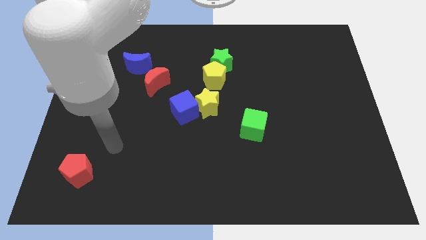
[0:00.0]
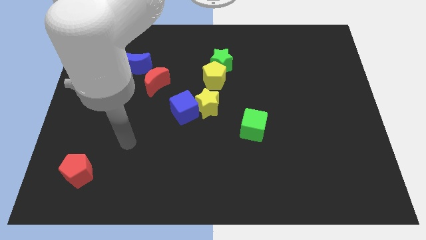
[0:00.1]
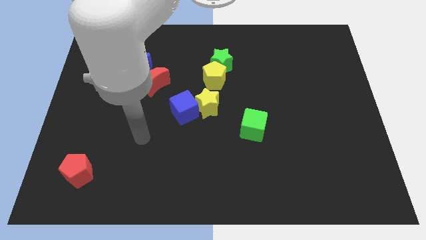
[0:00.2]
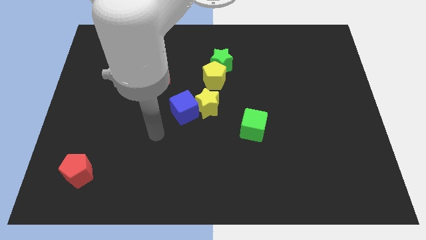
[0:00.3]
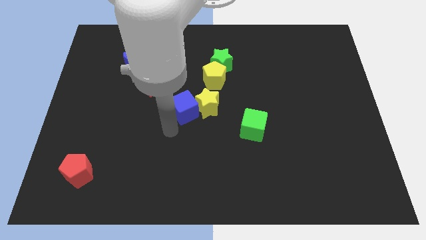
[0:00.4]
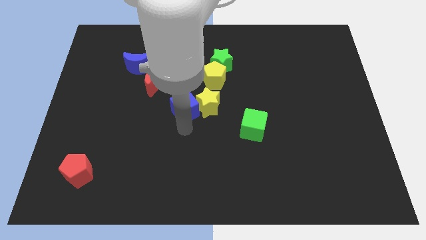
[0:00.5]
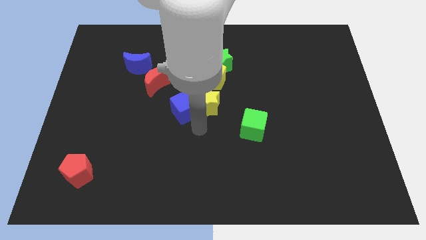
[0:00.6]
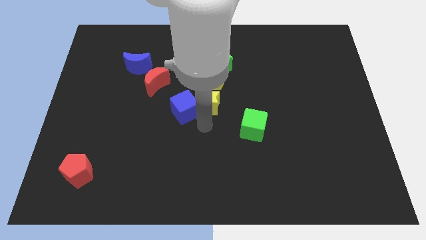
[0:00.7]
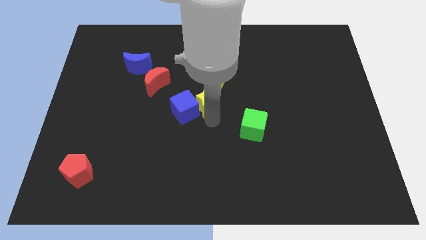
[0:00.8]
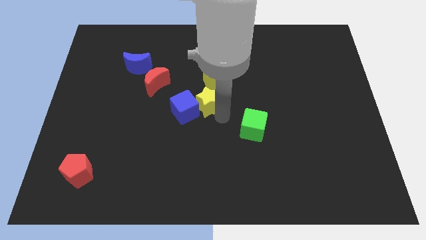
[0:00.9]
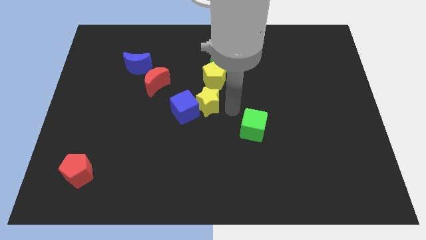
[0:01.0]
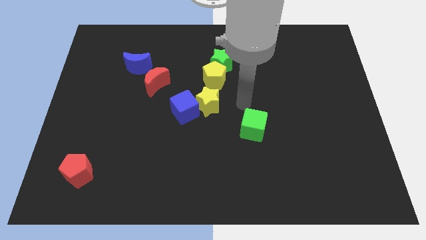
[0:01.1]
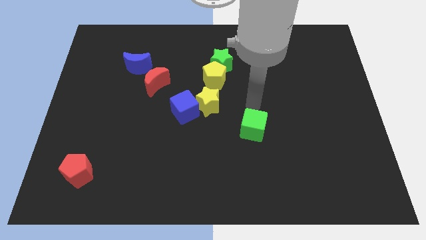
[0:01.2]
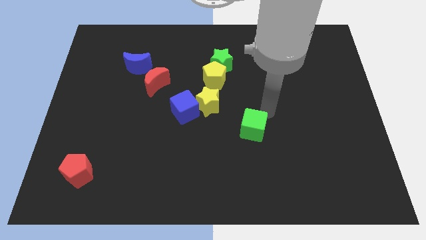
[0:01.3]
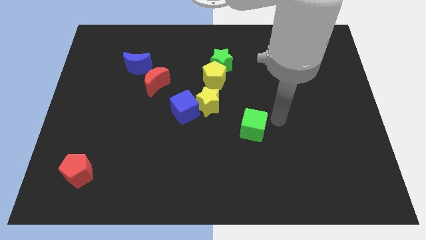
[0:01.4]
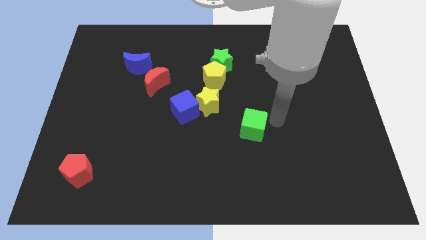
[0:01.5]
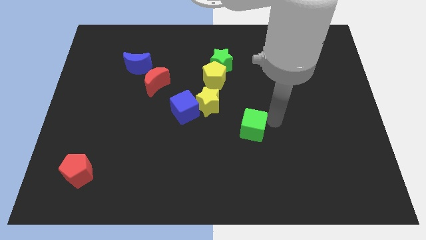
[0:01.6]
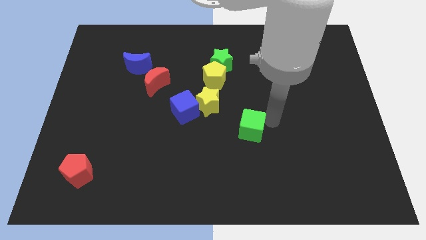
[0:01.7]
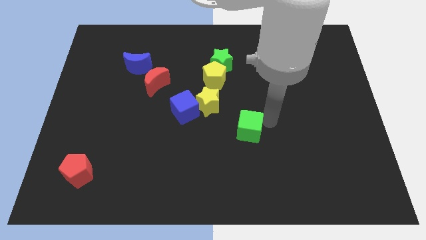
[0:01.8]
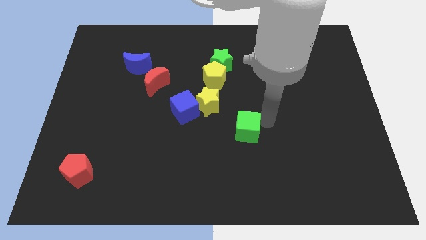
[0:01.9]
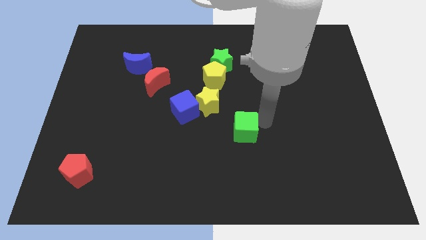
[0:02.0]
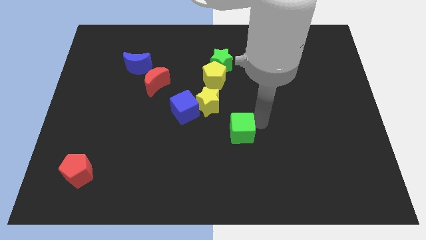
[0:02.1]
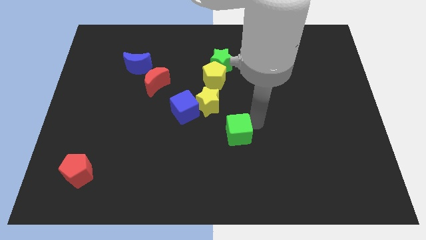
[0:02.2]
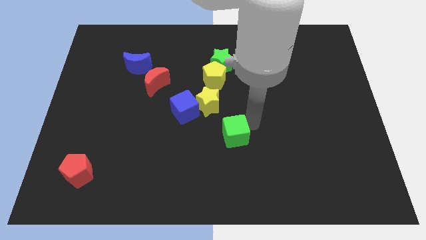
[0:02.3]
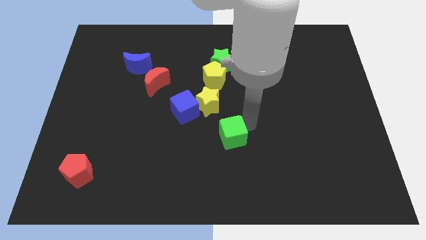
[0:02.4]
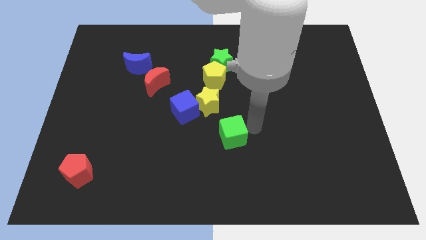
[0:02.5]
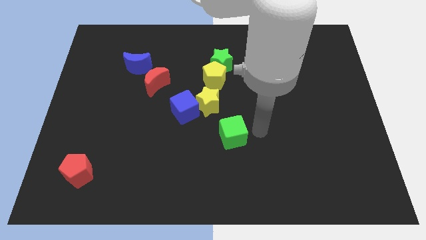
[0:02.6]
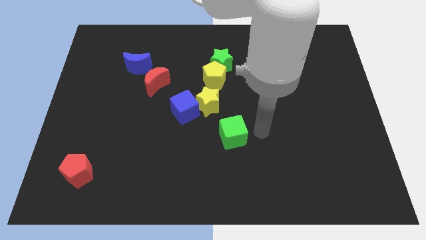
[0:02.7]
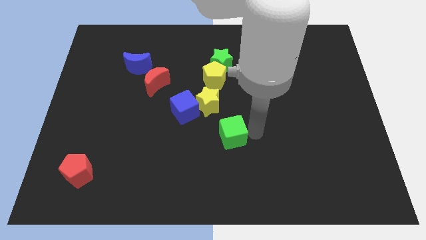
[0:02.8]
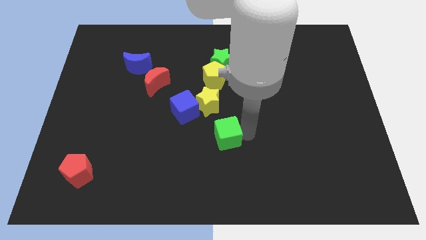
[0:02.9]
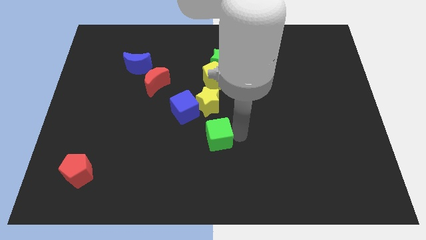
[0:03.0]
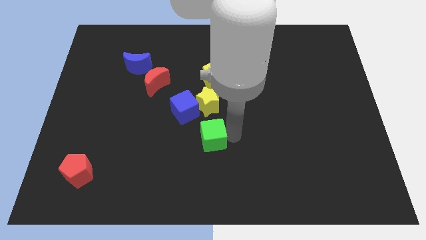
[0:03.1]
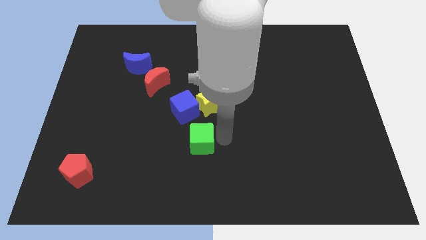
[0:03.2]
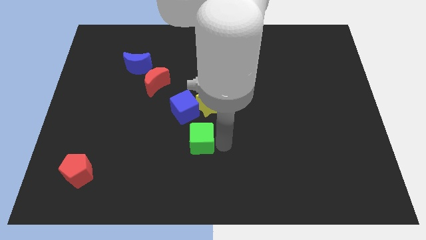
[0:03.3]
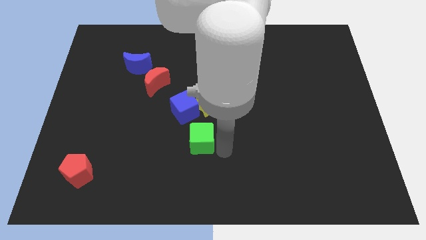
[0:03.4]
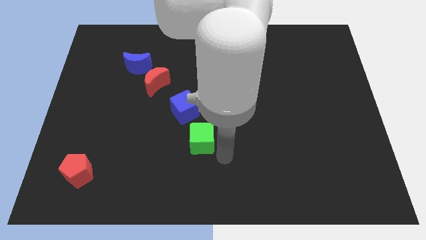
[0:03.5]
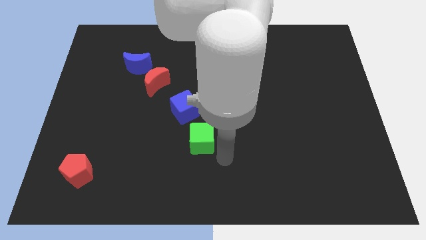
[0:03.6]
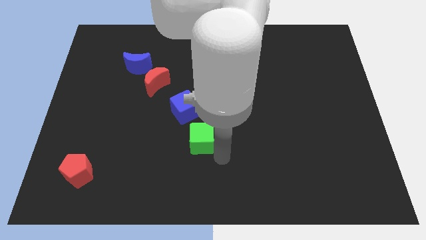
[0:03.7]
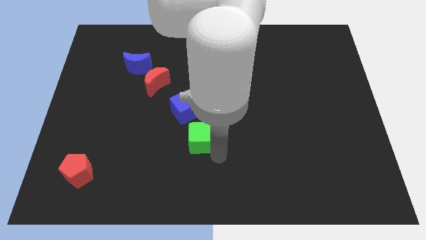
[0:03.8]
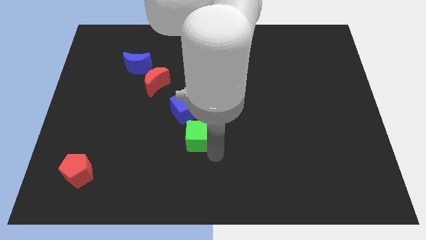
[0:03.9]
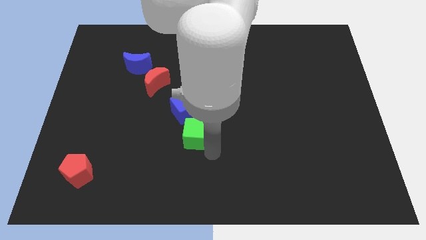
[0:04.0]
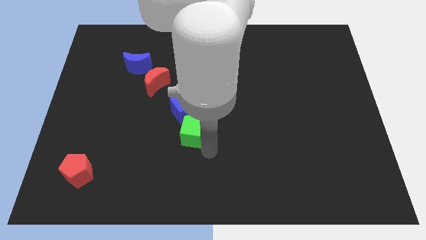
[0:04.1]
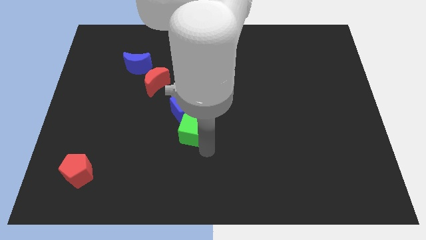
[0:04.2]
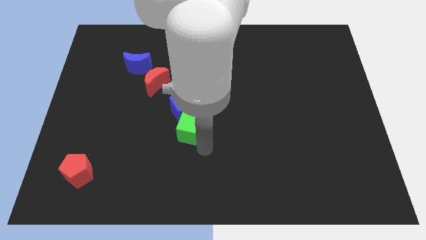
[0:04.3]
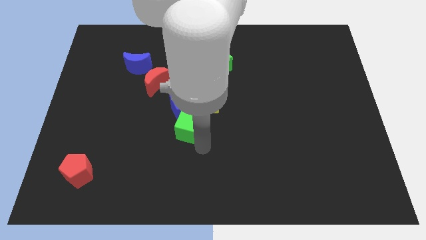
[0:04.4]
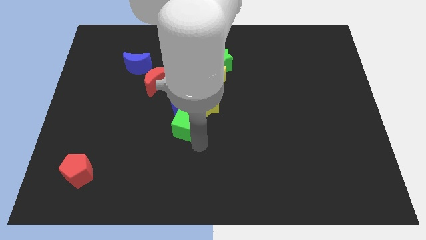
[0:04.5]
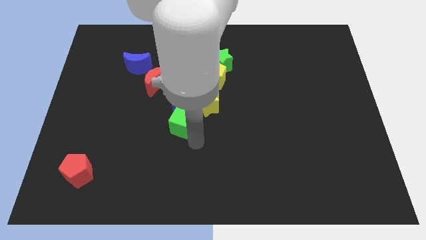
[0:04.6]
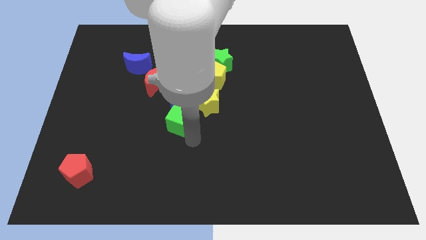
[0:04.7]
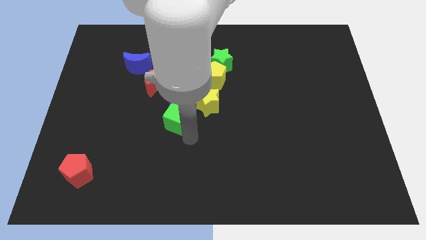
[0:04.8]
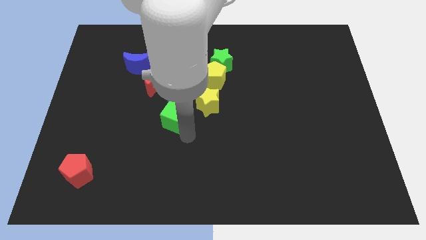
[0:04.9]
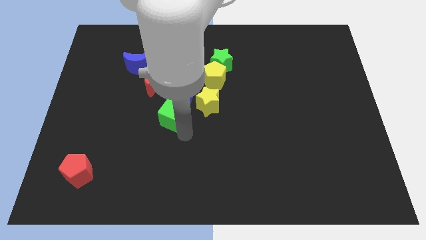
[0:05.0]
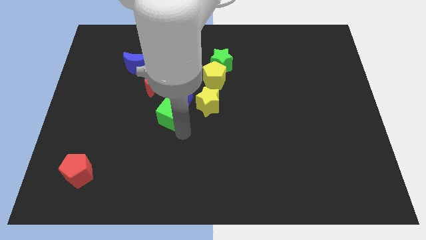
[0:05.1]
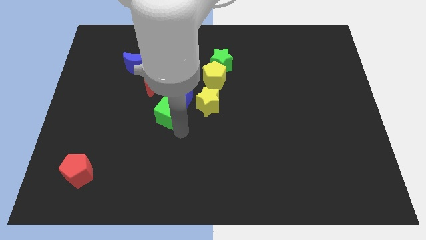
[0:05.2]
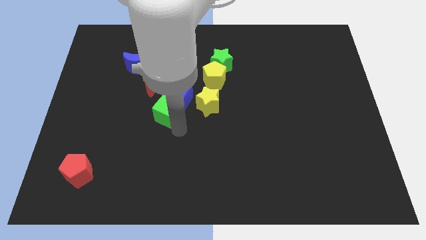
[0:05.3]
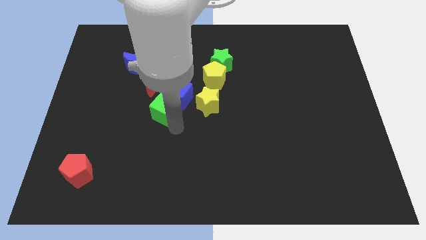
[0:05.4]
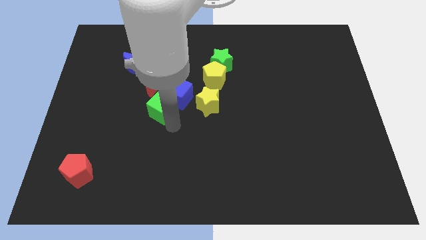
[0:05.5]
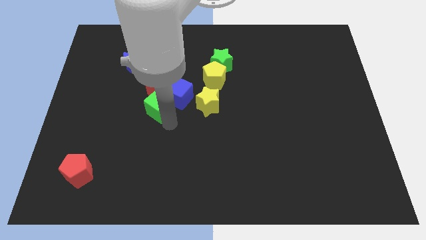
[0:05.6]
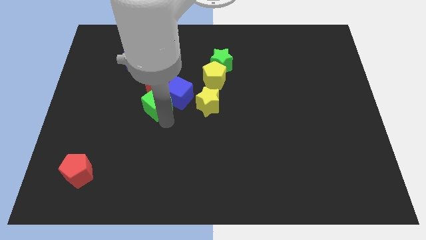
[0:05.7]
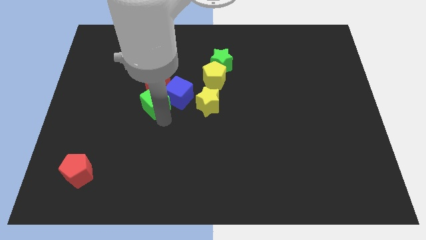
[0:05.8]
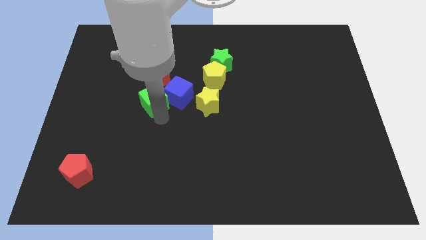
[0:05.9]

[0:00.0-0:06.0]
move the green cube towards the red moon

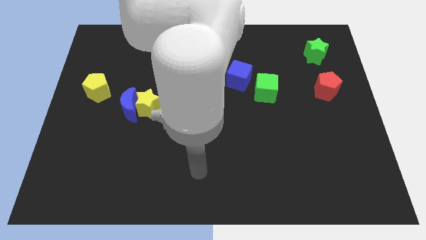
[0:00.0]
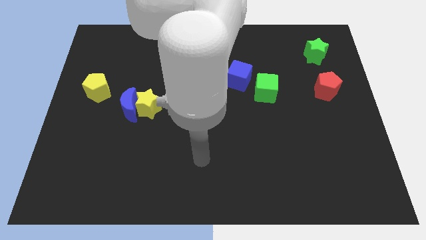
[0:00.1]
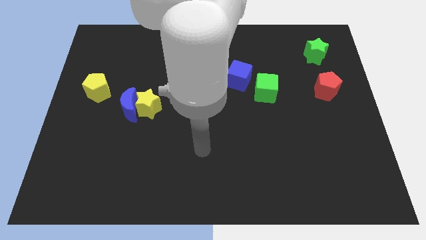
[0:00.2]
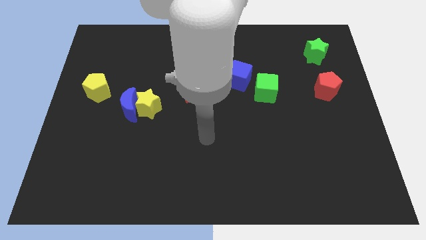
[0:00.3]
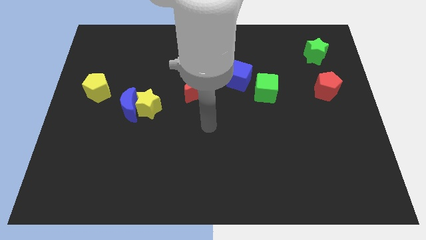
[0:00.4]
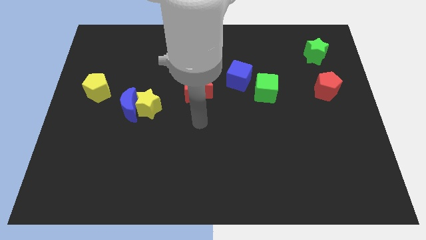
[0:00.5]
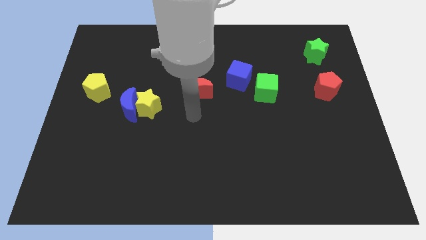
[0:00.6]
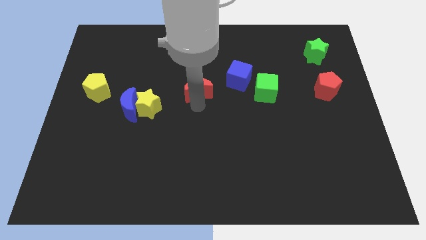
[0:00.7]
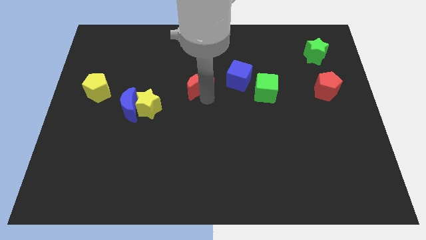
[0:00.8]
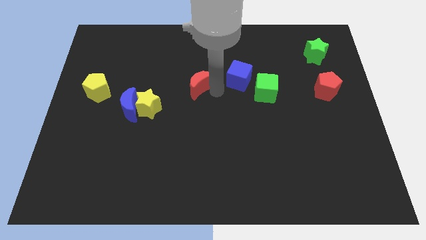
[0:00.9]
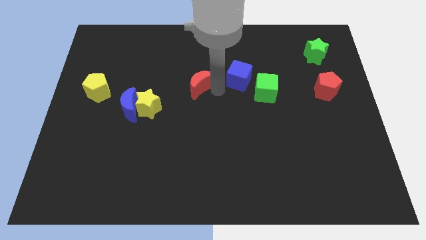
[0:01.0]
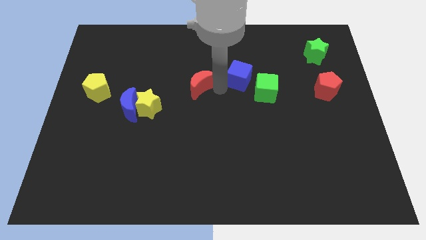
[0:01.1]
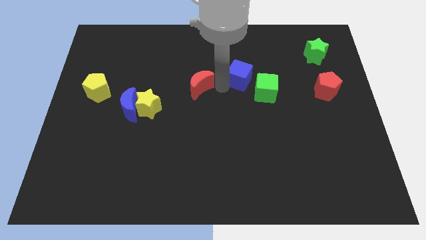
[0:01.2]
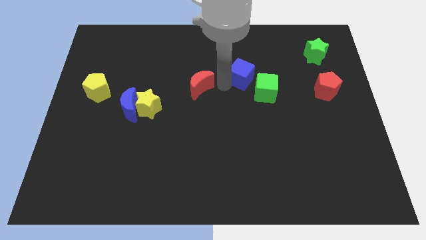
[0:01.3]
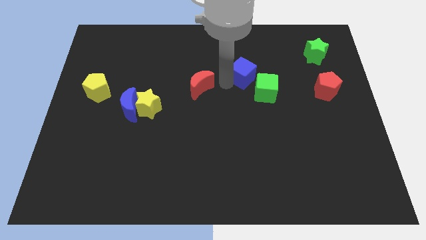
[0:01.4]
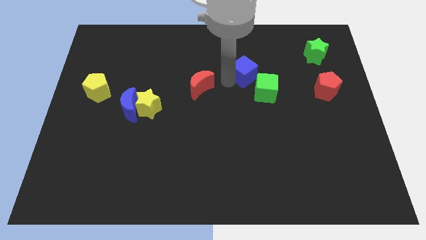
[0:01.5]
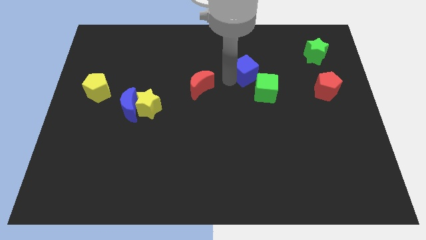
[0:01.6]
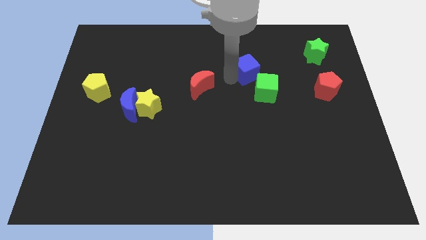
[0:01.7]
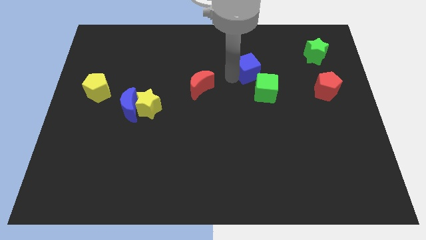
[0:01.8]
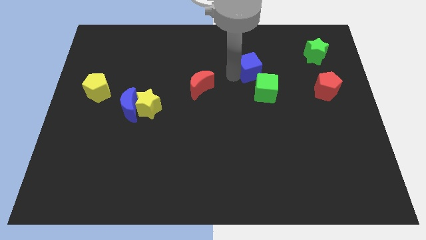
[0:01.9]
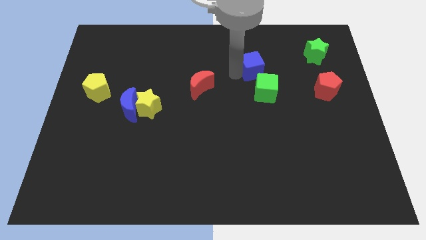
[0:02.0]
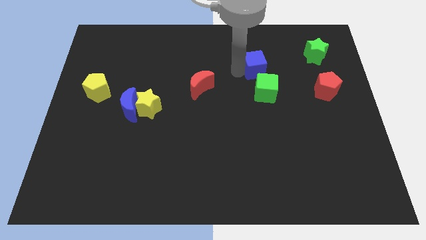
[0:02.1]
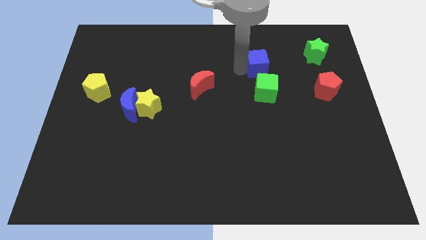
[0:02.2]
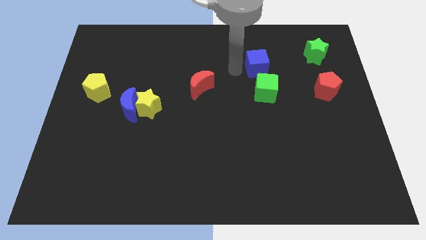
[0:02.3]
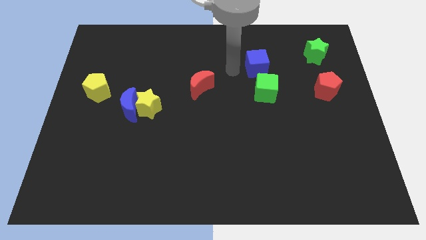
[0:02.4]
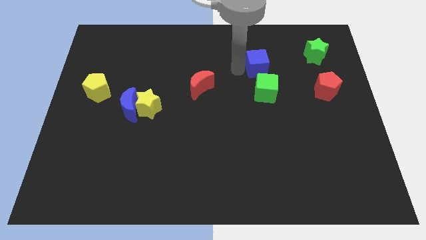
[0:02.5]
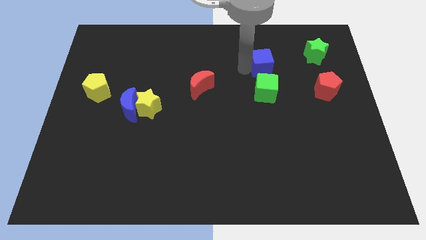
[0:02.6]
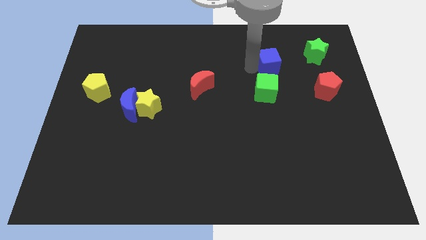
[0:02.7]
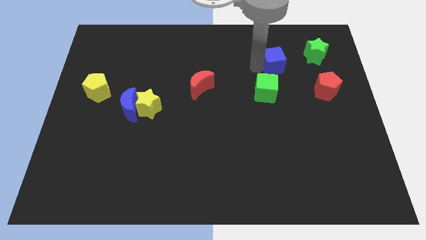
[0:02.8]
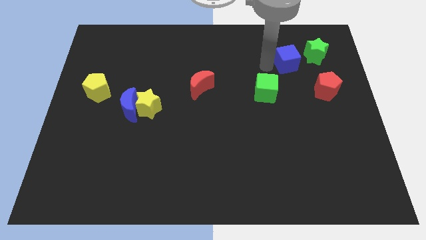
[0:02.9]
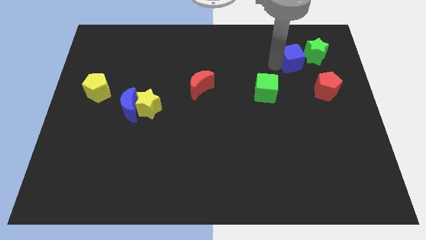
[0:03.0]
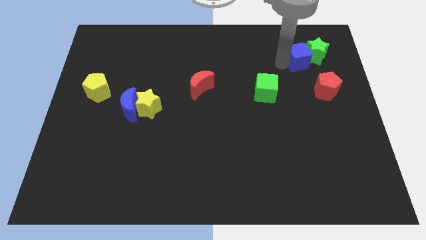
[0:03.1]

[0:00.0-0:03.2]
slide the blue cube next to the green star
